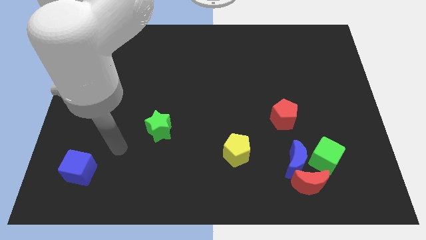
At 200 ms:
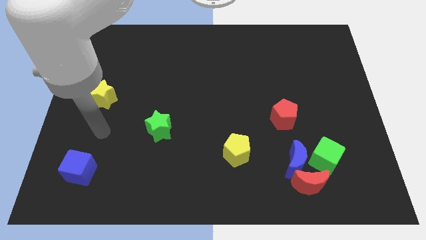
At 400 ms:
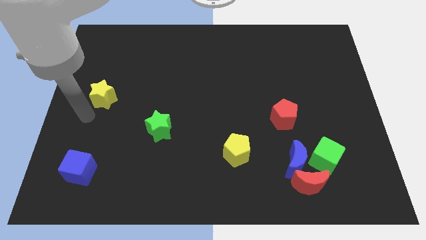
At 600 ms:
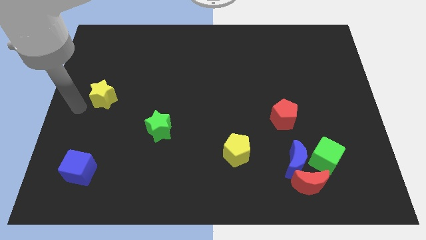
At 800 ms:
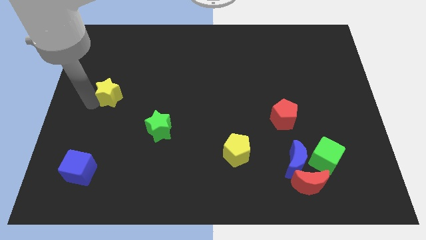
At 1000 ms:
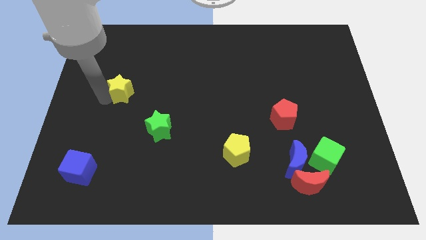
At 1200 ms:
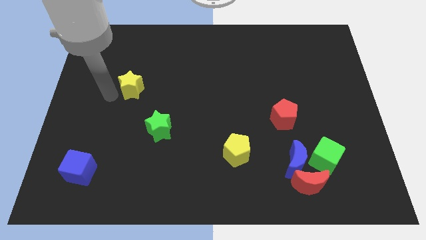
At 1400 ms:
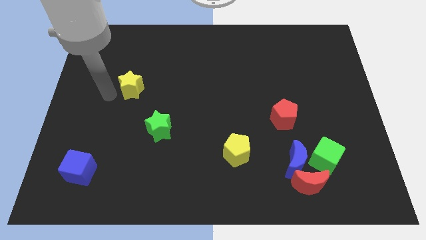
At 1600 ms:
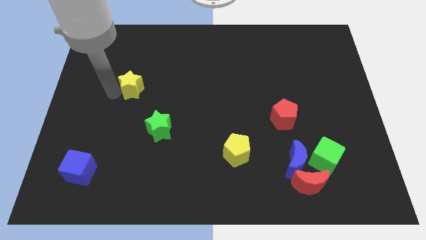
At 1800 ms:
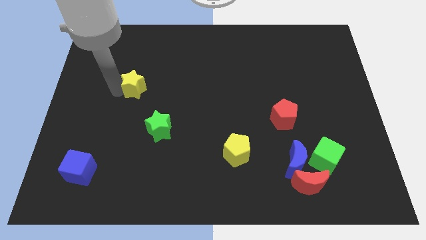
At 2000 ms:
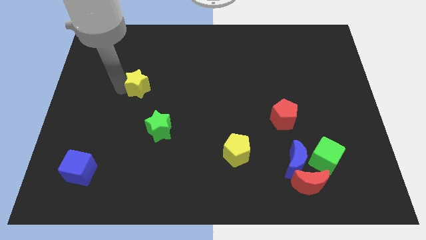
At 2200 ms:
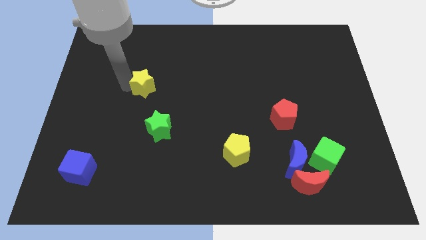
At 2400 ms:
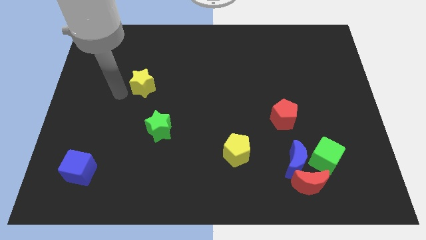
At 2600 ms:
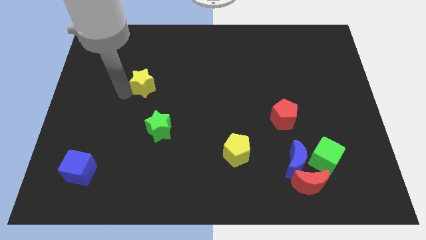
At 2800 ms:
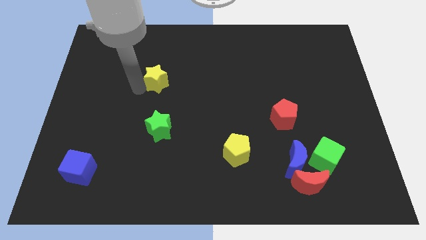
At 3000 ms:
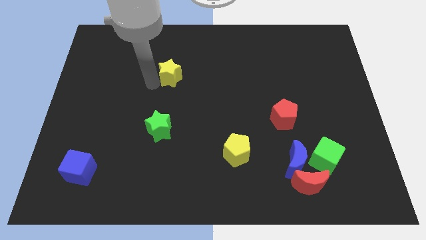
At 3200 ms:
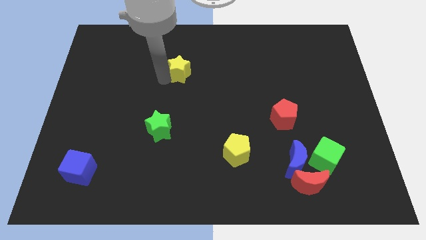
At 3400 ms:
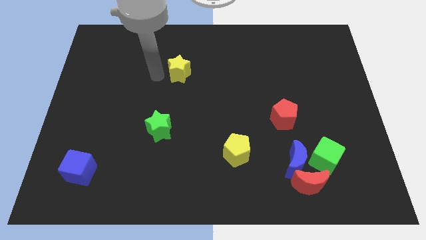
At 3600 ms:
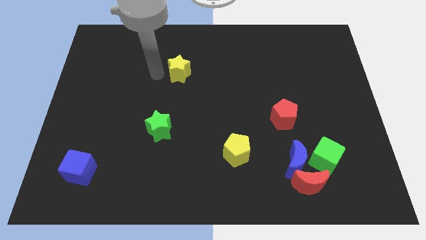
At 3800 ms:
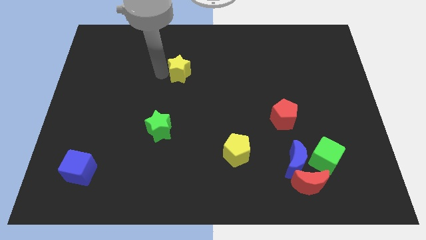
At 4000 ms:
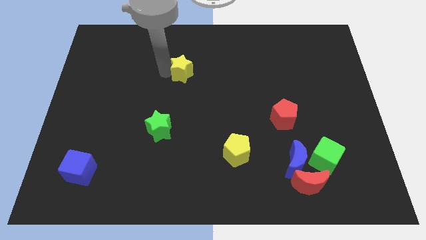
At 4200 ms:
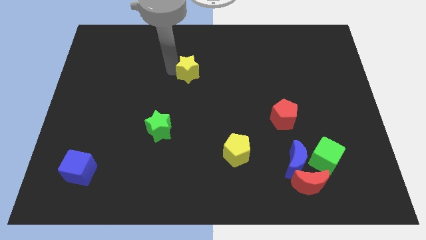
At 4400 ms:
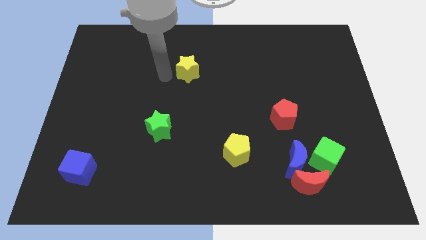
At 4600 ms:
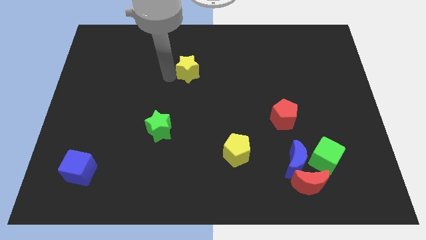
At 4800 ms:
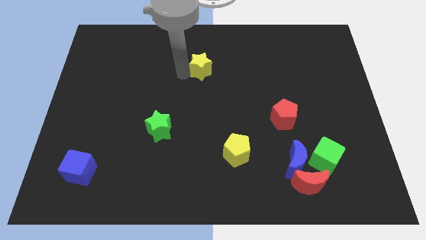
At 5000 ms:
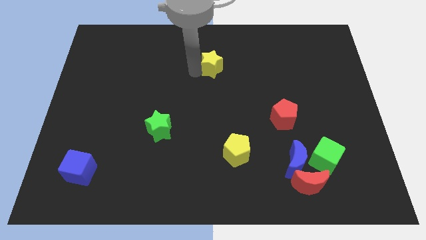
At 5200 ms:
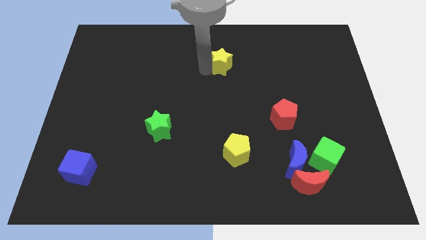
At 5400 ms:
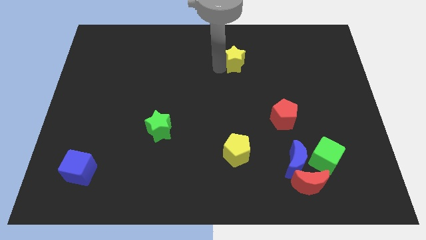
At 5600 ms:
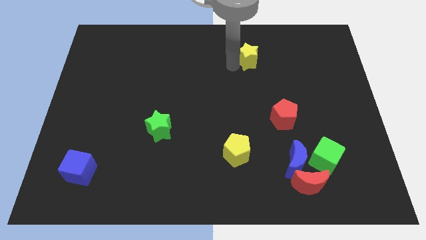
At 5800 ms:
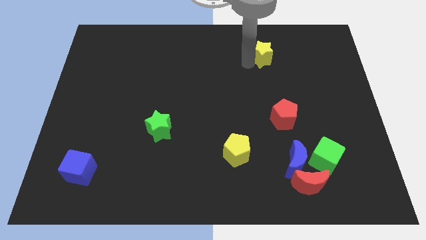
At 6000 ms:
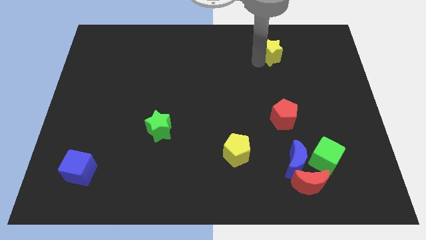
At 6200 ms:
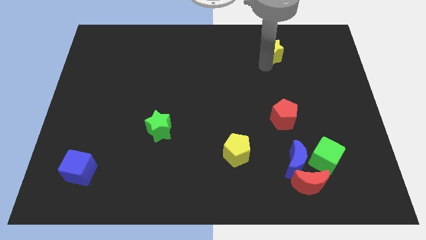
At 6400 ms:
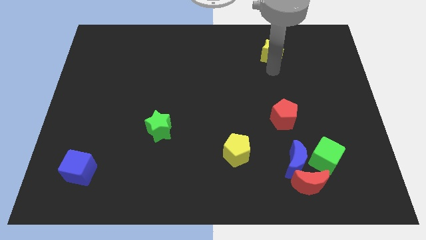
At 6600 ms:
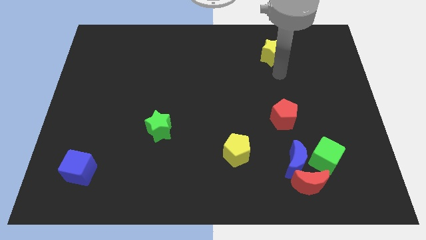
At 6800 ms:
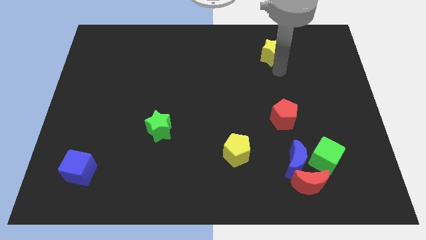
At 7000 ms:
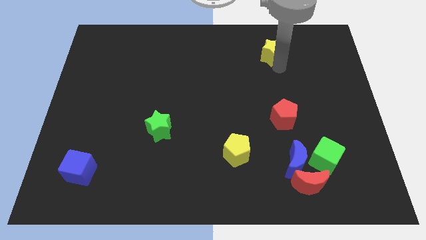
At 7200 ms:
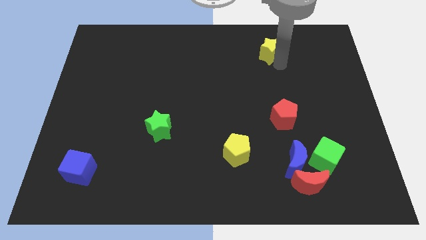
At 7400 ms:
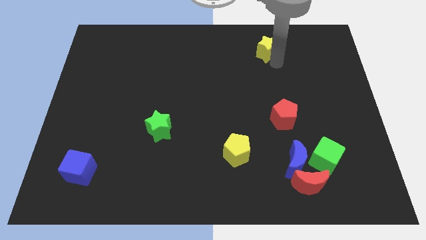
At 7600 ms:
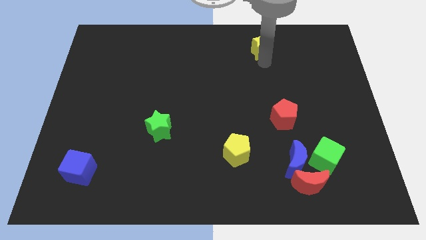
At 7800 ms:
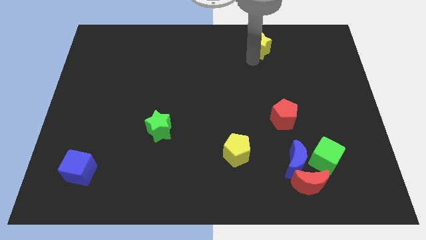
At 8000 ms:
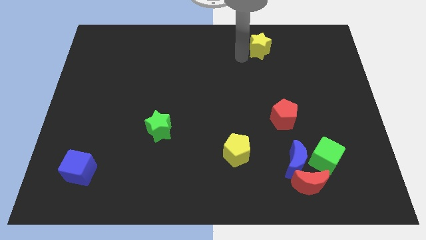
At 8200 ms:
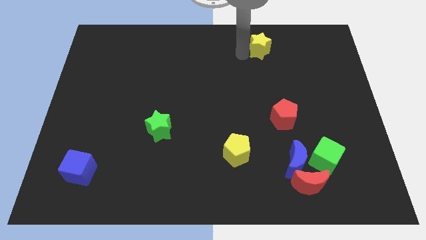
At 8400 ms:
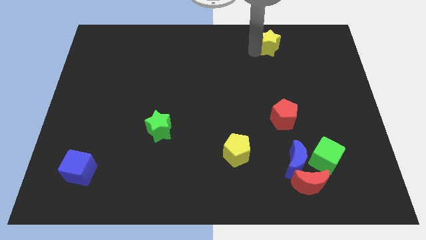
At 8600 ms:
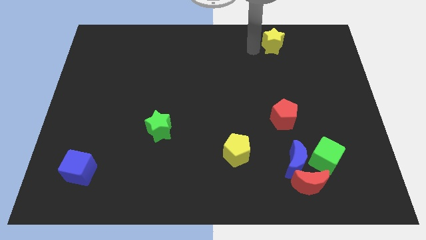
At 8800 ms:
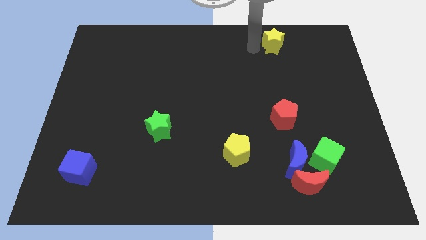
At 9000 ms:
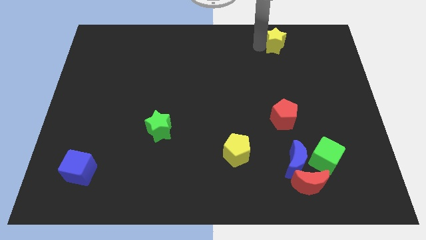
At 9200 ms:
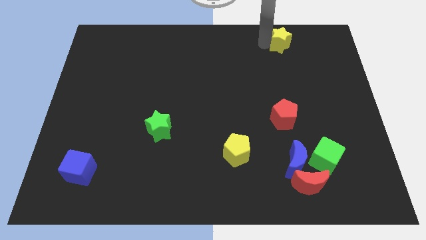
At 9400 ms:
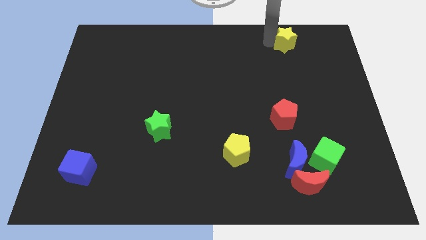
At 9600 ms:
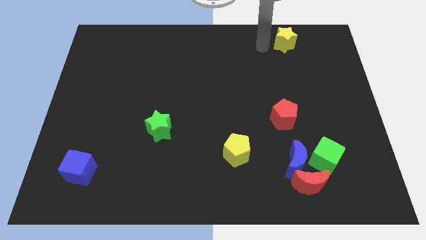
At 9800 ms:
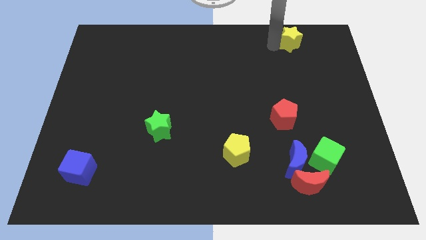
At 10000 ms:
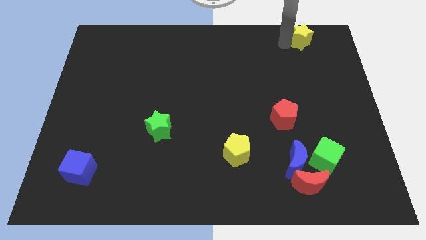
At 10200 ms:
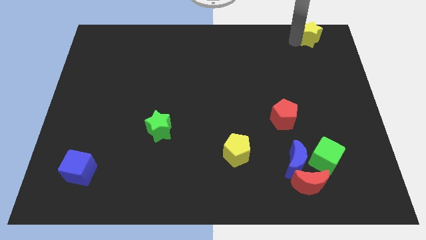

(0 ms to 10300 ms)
slide the yellow star to the top right of the board

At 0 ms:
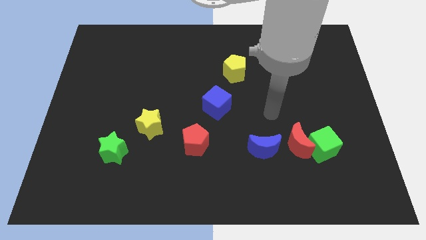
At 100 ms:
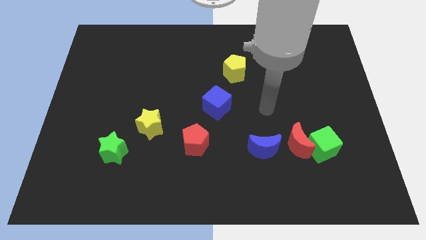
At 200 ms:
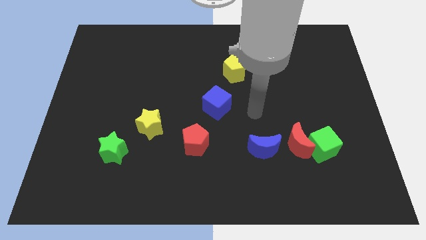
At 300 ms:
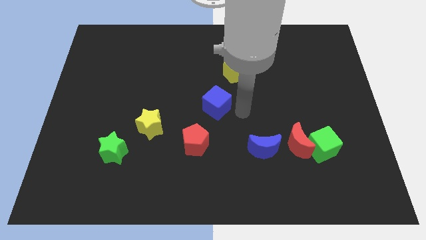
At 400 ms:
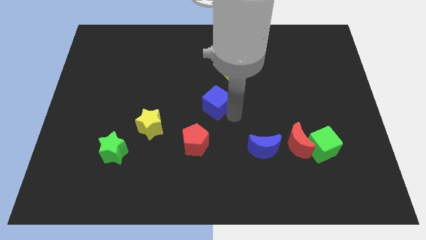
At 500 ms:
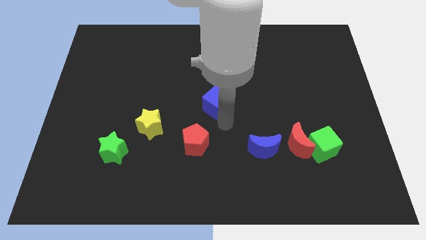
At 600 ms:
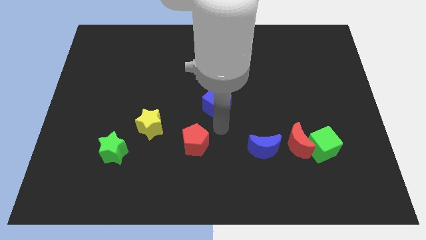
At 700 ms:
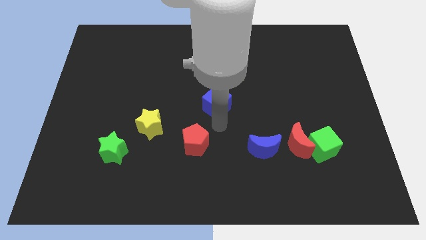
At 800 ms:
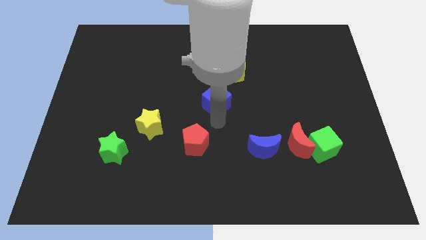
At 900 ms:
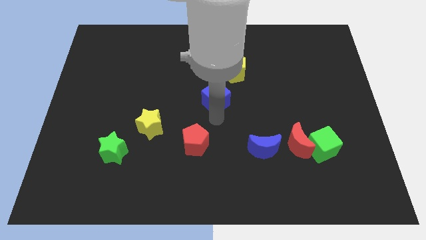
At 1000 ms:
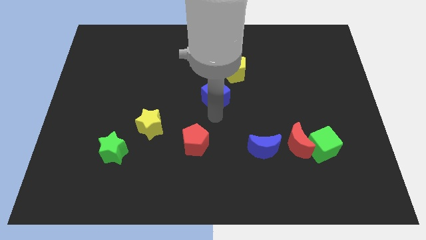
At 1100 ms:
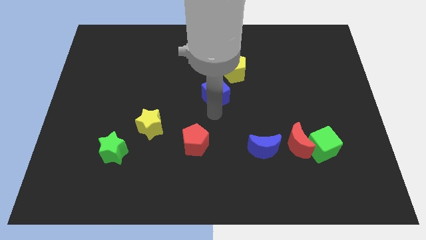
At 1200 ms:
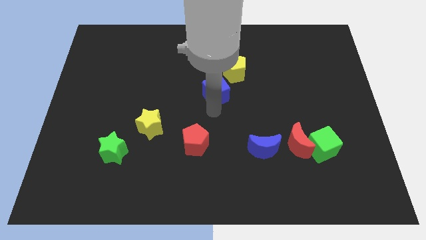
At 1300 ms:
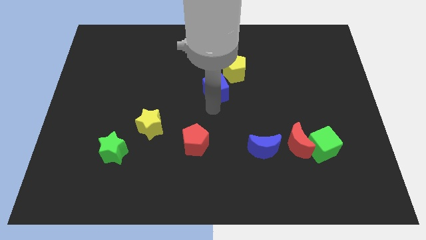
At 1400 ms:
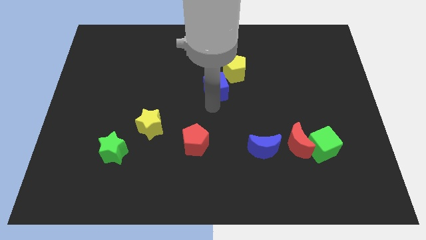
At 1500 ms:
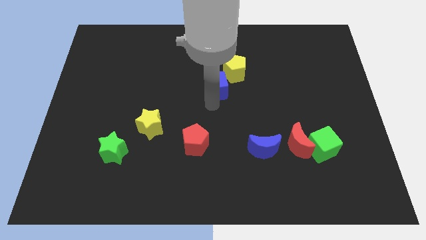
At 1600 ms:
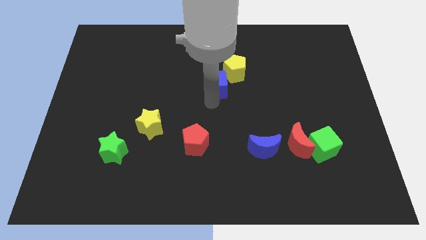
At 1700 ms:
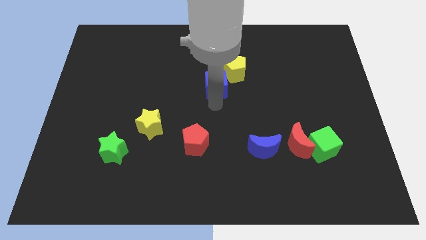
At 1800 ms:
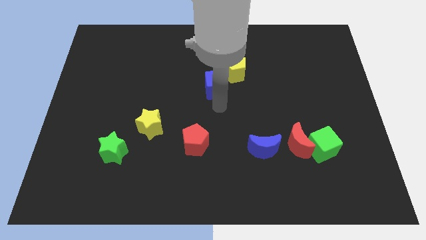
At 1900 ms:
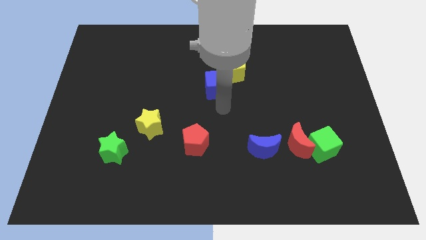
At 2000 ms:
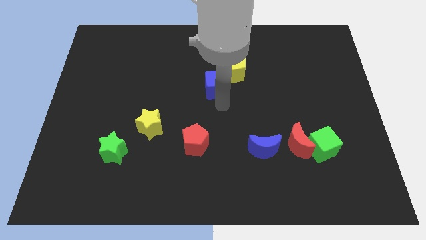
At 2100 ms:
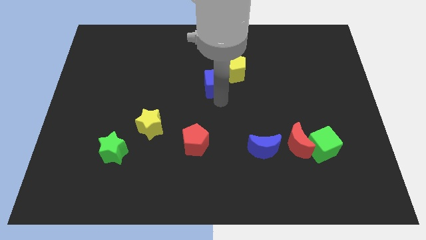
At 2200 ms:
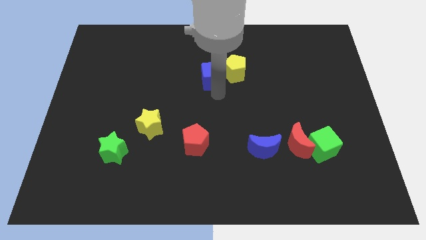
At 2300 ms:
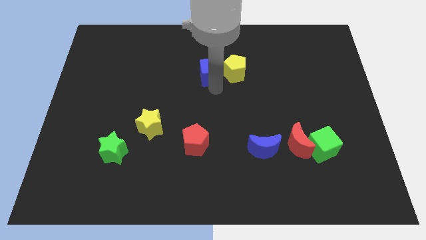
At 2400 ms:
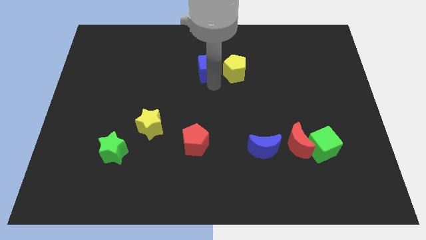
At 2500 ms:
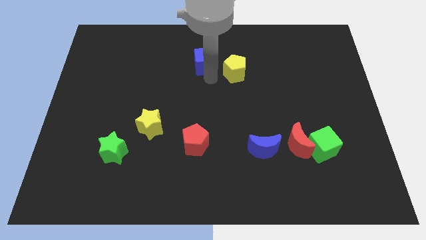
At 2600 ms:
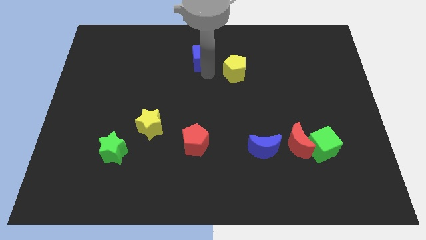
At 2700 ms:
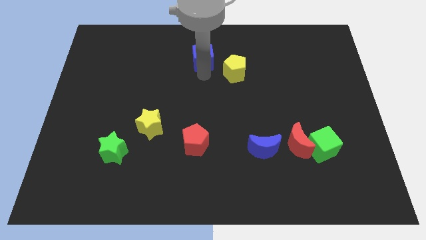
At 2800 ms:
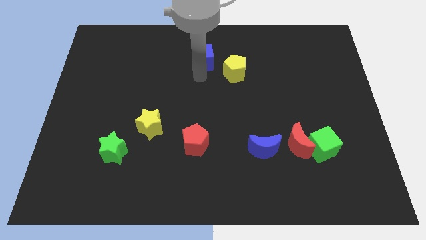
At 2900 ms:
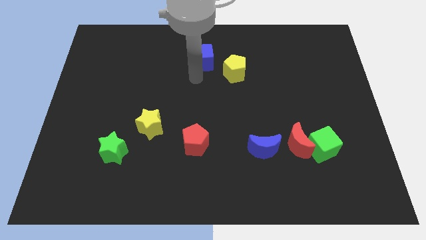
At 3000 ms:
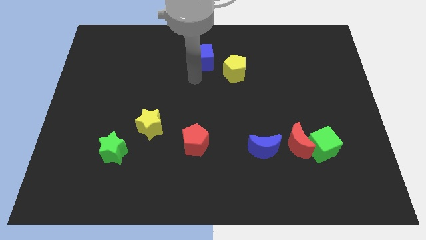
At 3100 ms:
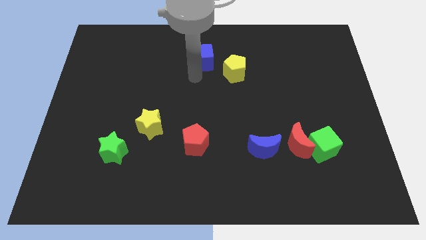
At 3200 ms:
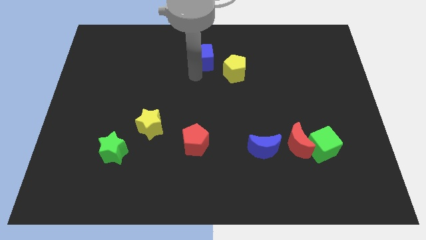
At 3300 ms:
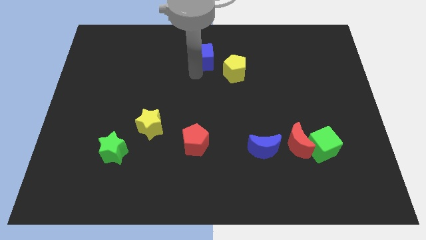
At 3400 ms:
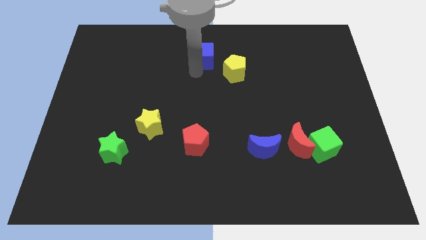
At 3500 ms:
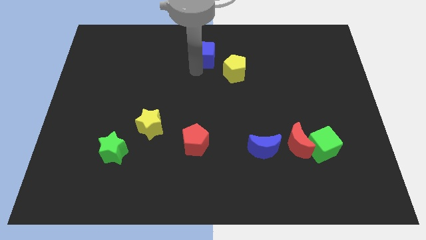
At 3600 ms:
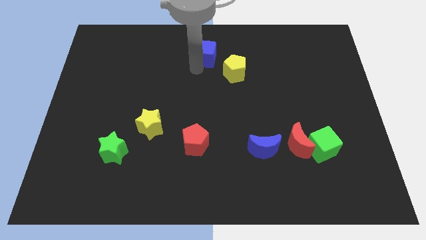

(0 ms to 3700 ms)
slide the blue cube to the towards your base
